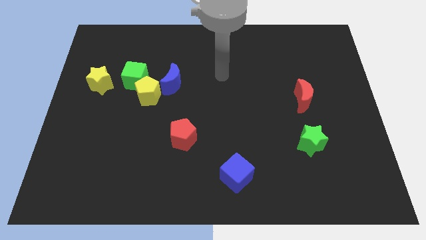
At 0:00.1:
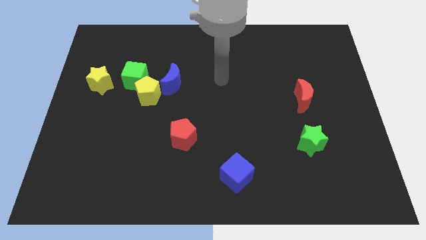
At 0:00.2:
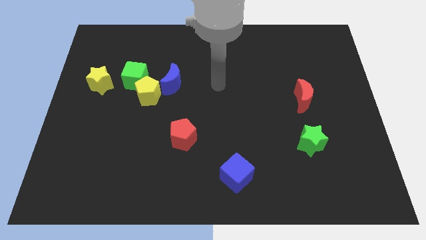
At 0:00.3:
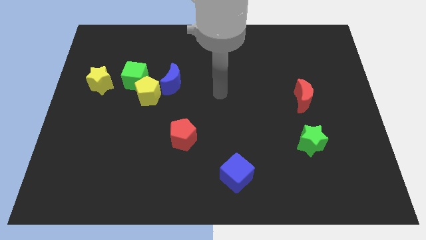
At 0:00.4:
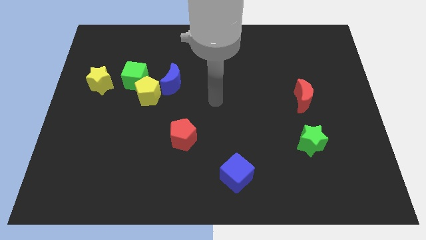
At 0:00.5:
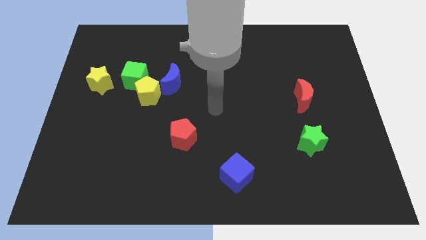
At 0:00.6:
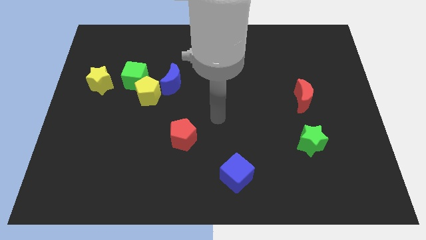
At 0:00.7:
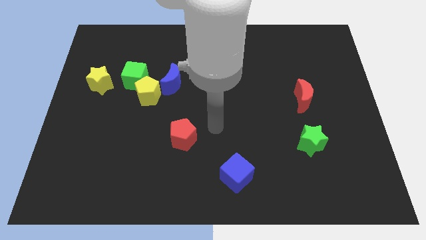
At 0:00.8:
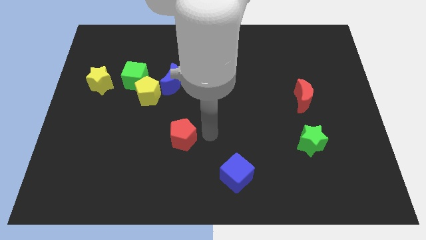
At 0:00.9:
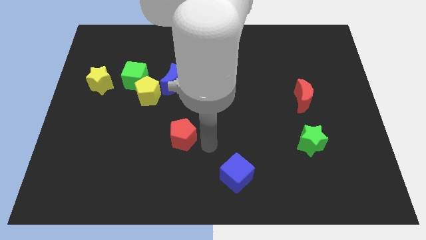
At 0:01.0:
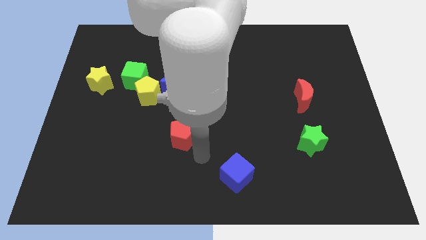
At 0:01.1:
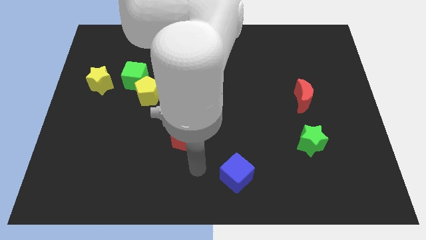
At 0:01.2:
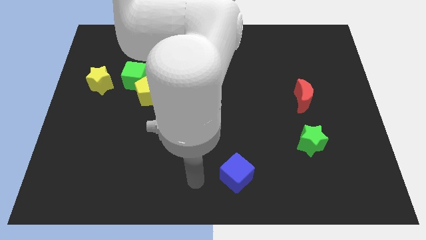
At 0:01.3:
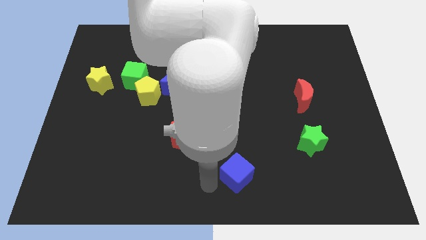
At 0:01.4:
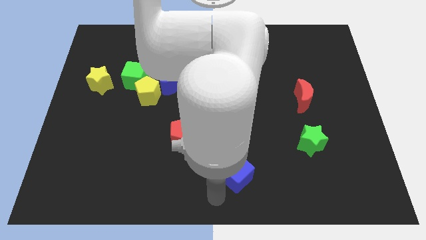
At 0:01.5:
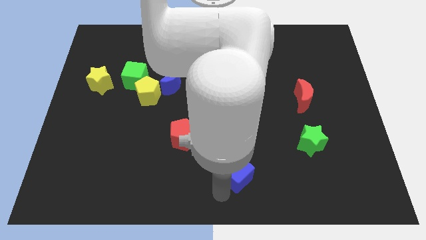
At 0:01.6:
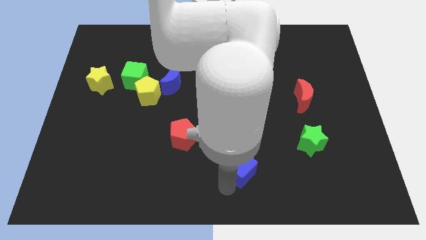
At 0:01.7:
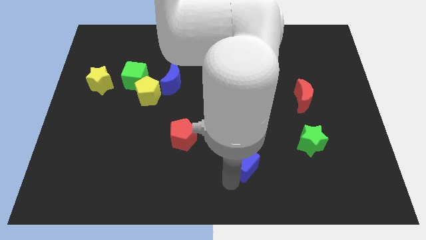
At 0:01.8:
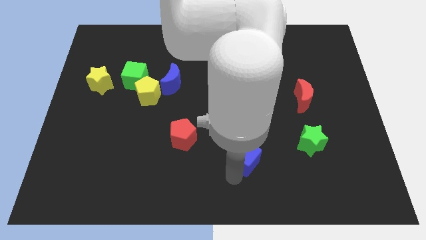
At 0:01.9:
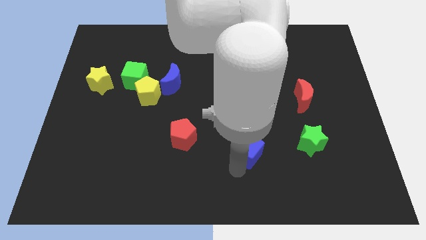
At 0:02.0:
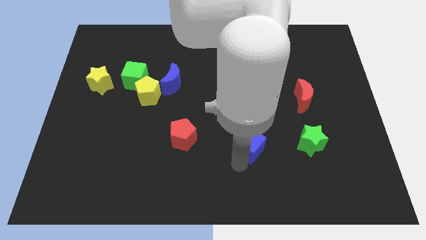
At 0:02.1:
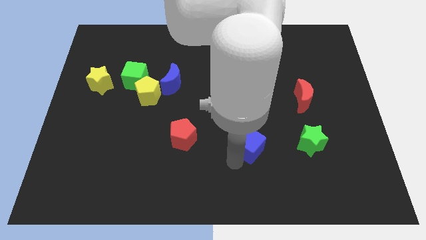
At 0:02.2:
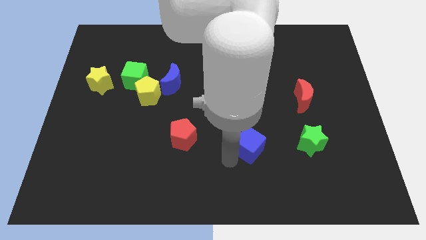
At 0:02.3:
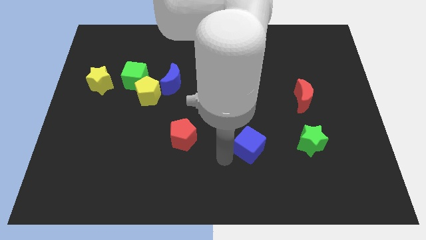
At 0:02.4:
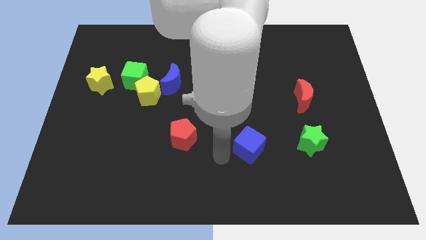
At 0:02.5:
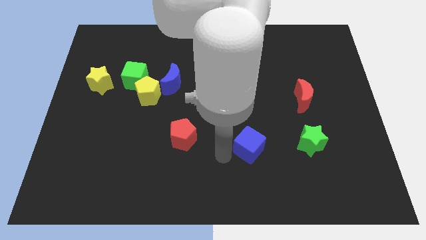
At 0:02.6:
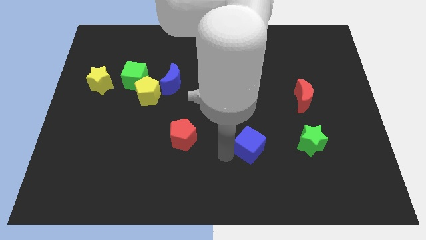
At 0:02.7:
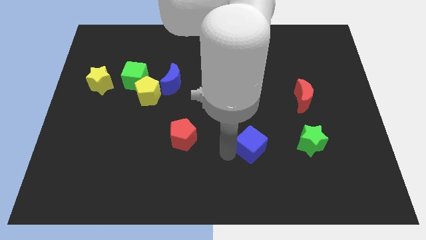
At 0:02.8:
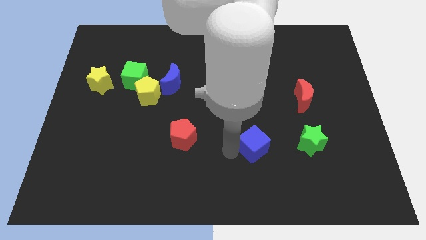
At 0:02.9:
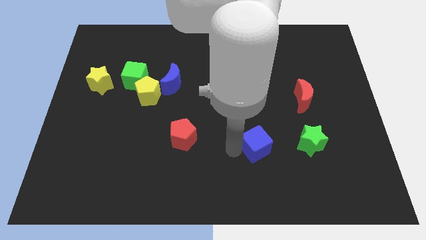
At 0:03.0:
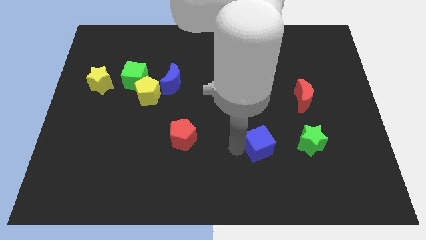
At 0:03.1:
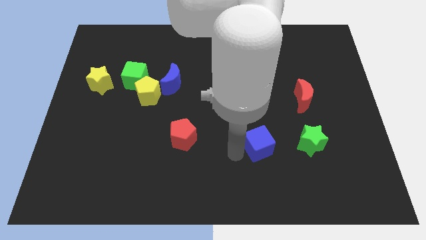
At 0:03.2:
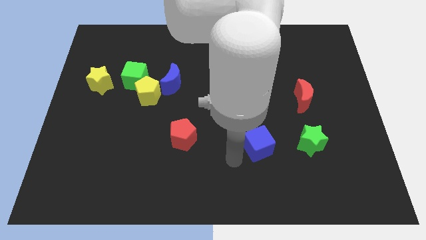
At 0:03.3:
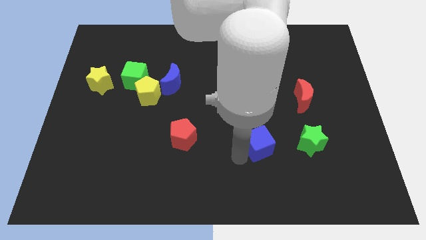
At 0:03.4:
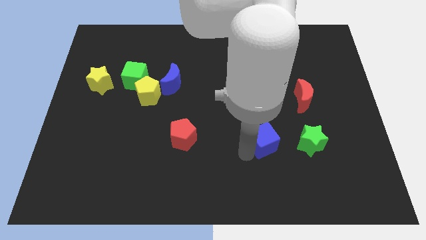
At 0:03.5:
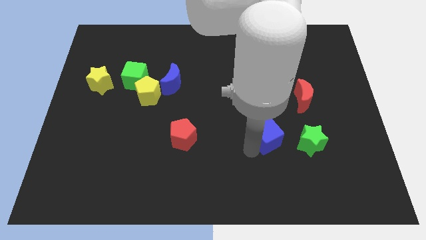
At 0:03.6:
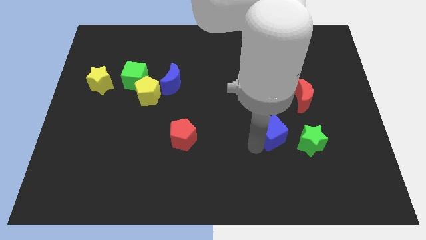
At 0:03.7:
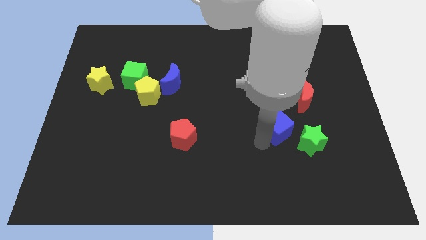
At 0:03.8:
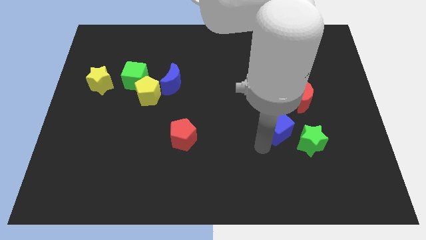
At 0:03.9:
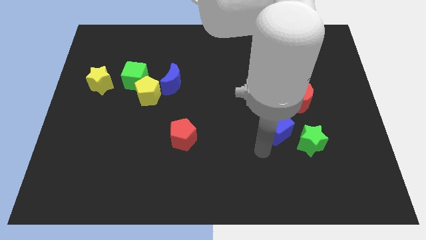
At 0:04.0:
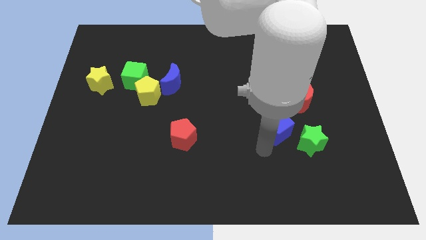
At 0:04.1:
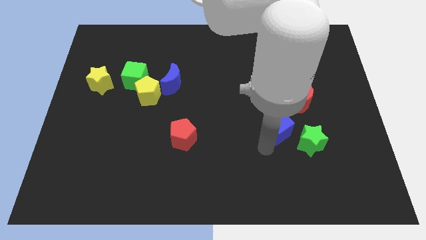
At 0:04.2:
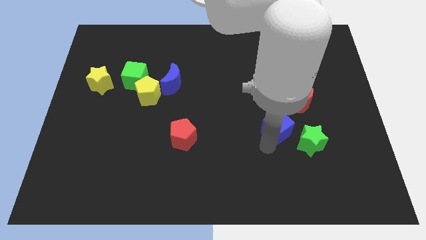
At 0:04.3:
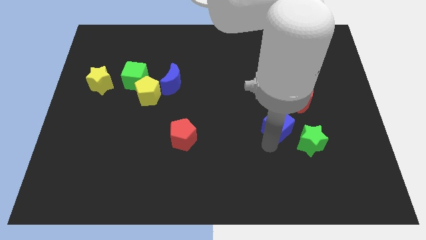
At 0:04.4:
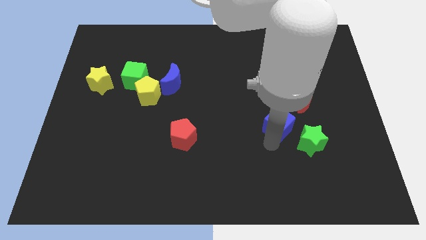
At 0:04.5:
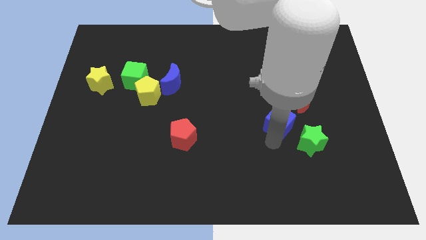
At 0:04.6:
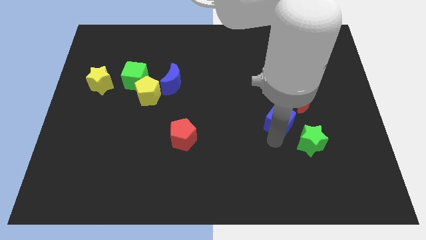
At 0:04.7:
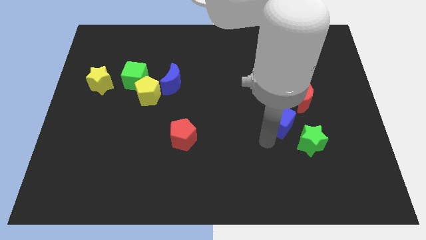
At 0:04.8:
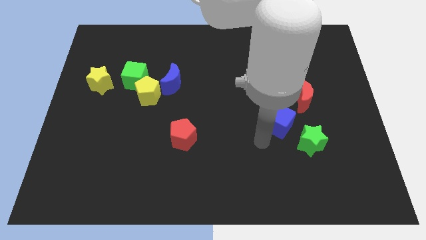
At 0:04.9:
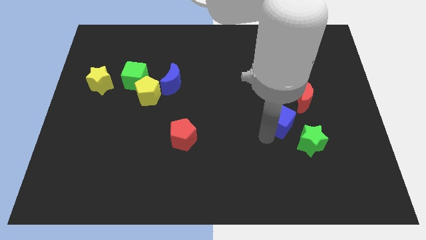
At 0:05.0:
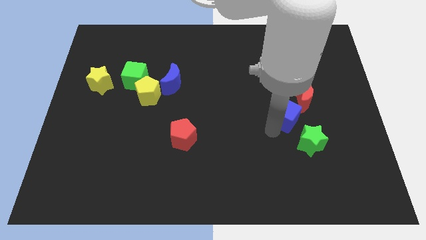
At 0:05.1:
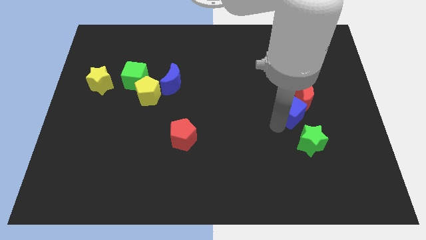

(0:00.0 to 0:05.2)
push the blue cube next to the red moon

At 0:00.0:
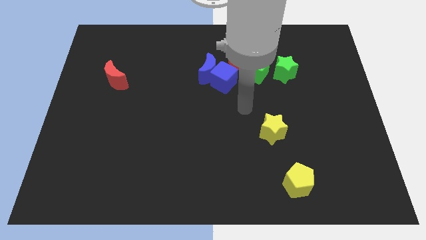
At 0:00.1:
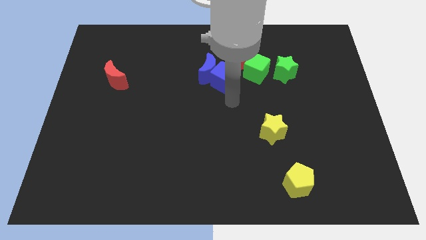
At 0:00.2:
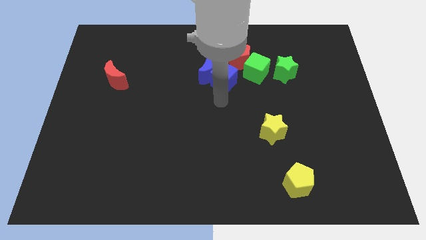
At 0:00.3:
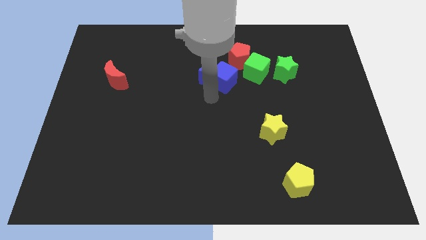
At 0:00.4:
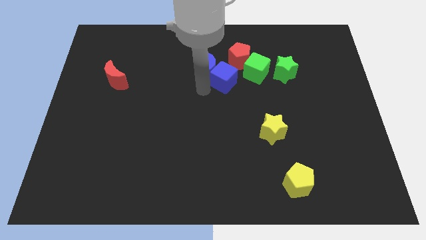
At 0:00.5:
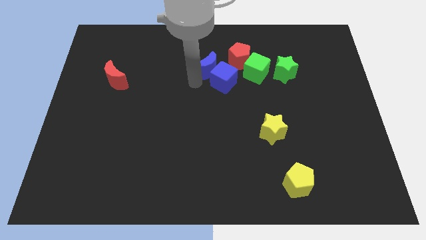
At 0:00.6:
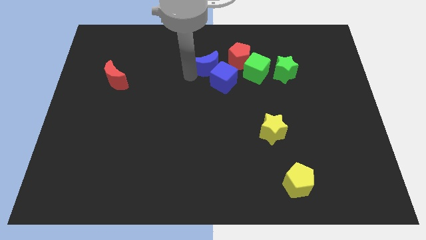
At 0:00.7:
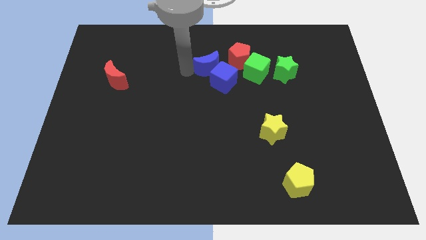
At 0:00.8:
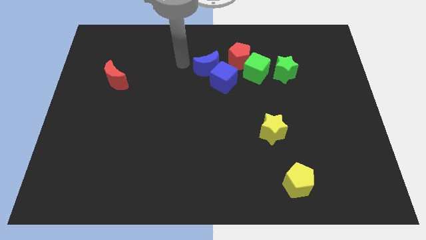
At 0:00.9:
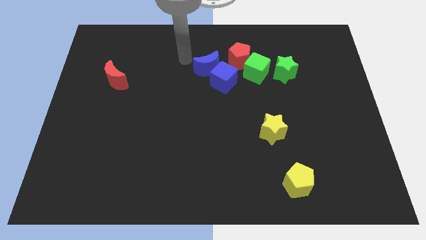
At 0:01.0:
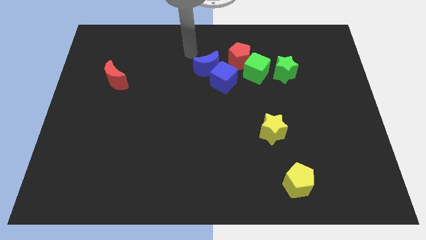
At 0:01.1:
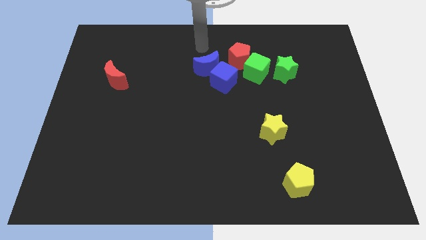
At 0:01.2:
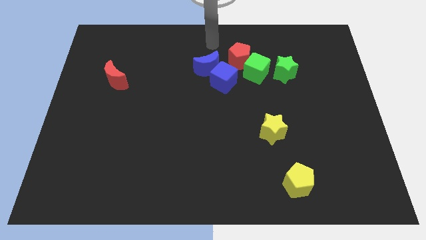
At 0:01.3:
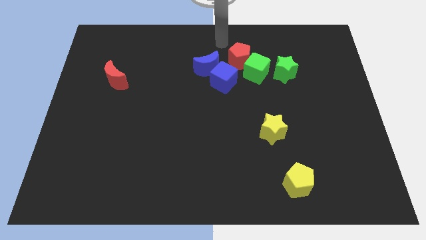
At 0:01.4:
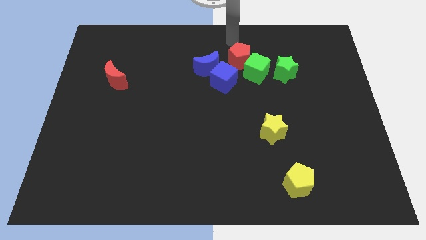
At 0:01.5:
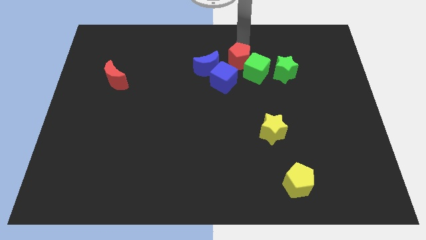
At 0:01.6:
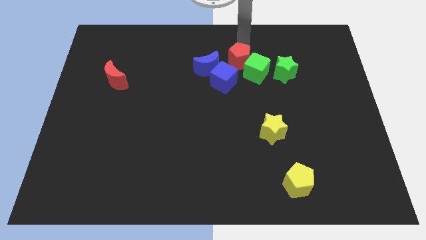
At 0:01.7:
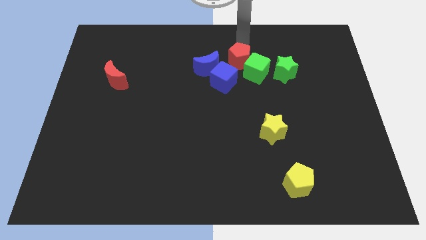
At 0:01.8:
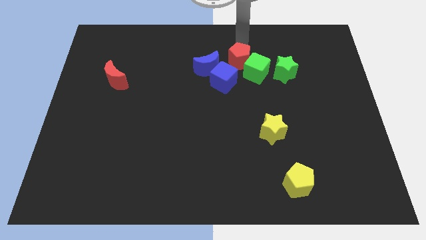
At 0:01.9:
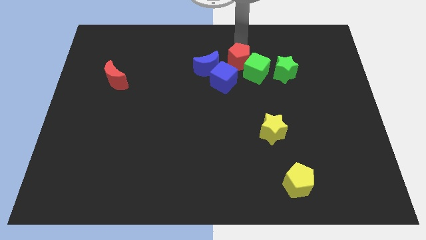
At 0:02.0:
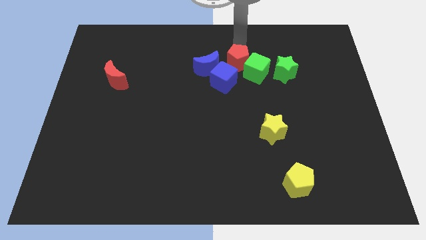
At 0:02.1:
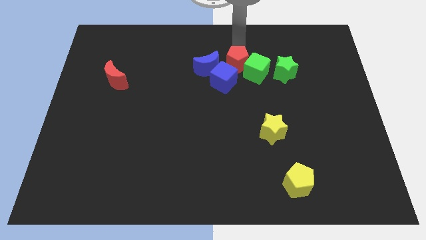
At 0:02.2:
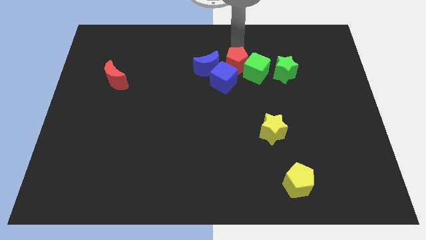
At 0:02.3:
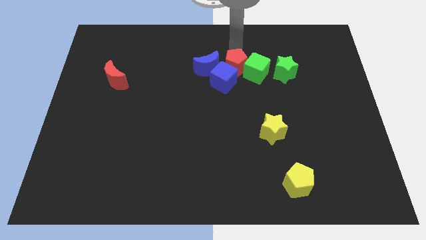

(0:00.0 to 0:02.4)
move the red pentagon towards the blue cube

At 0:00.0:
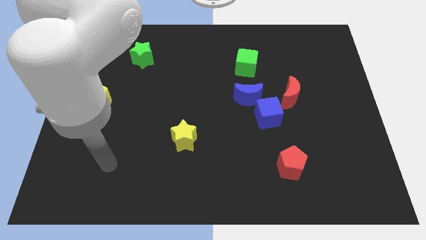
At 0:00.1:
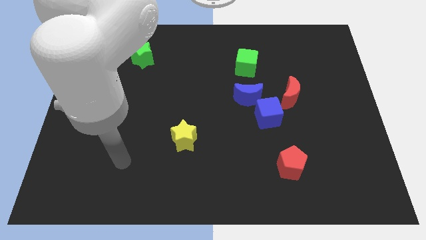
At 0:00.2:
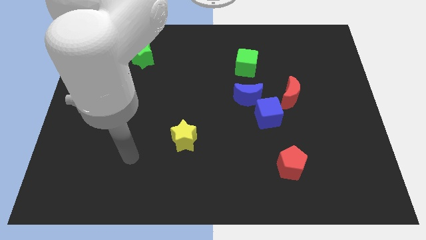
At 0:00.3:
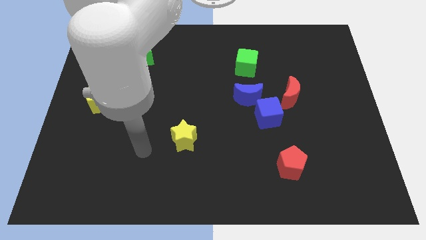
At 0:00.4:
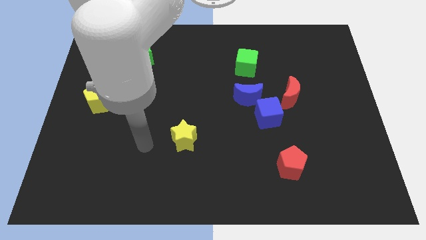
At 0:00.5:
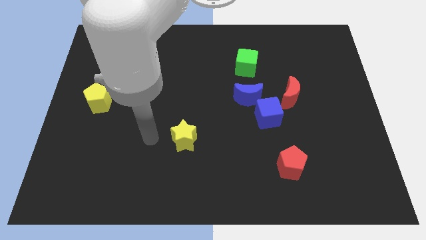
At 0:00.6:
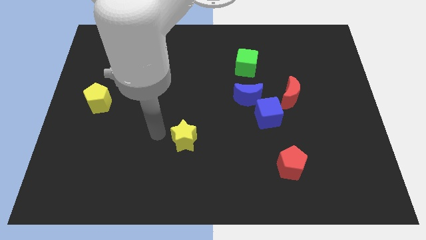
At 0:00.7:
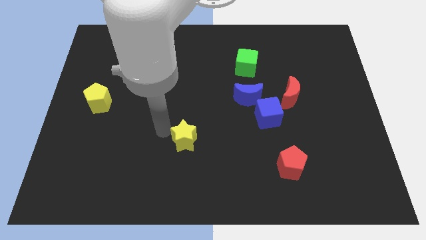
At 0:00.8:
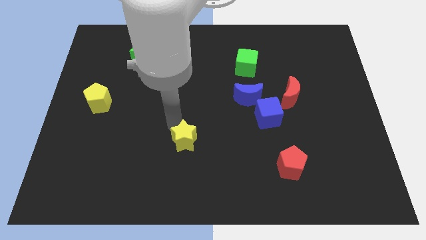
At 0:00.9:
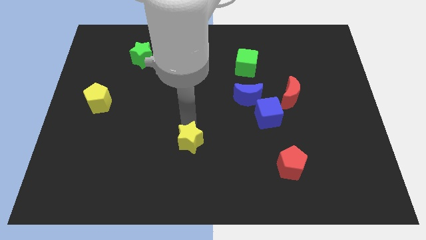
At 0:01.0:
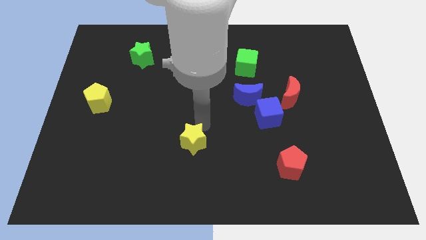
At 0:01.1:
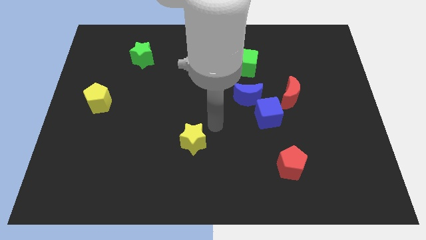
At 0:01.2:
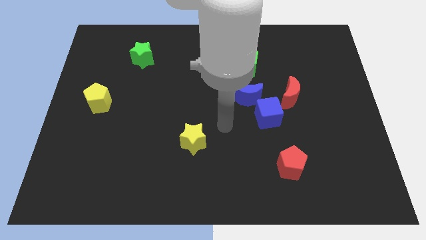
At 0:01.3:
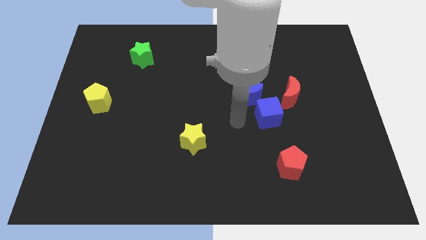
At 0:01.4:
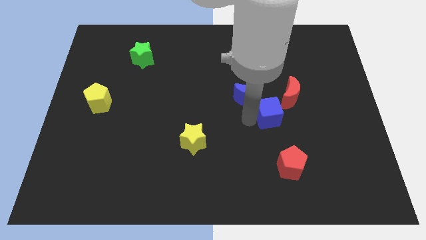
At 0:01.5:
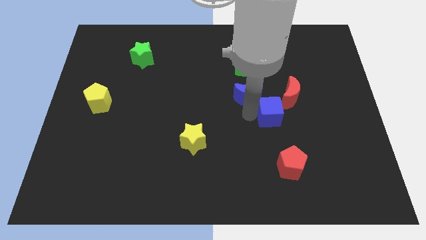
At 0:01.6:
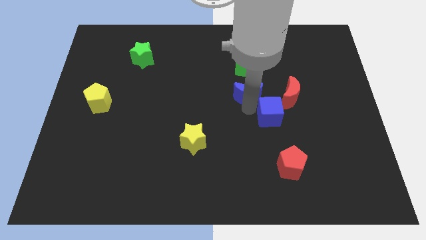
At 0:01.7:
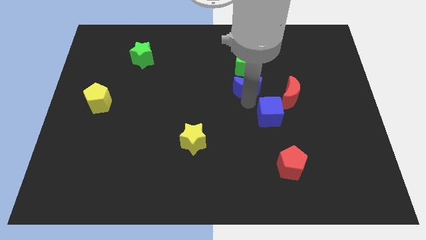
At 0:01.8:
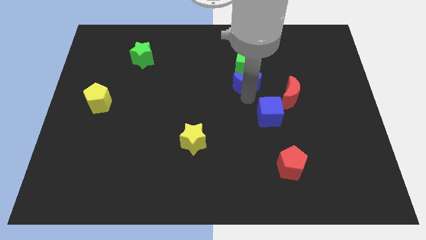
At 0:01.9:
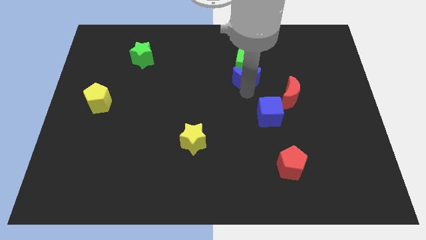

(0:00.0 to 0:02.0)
move the blue moon close to the green cube
